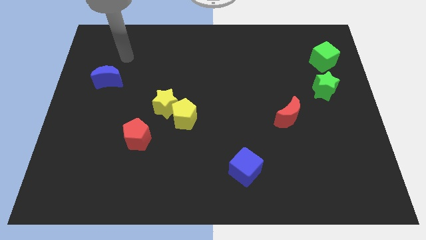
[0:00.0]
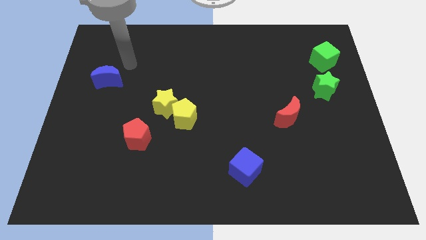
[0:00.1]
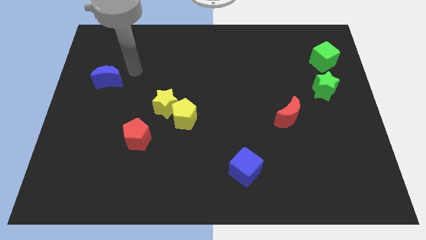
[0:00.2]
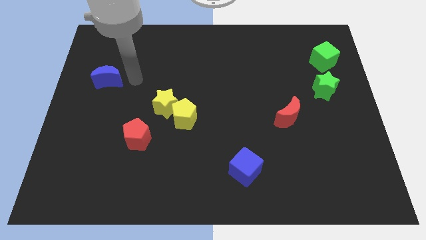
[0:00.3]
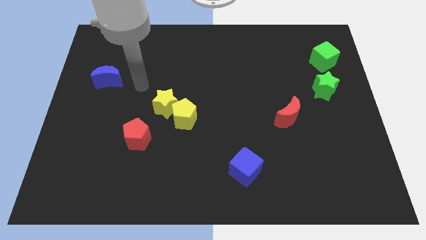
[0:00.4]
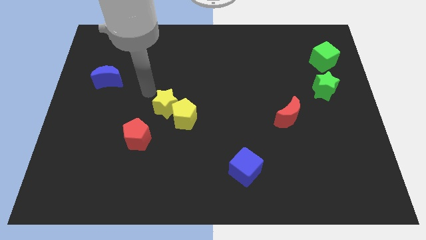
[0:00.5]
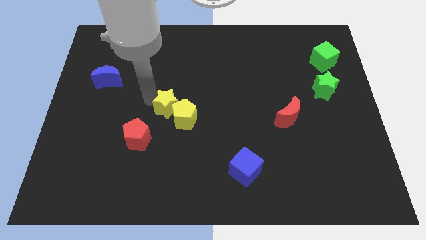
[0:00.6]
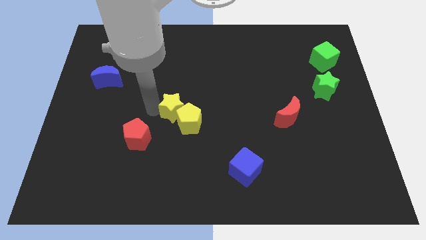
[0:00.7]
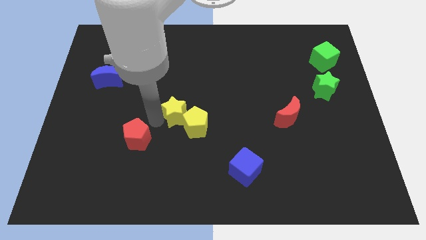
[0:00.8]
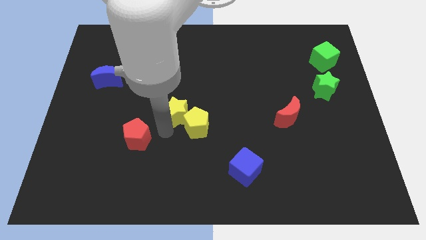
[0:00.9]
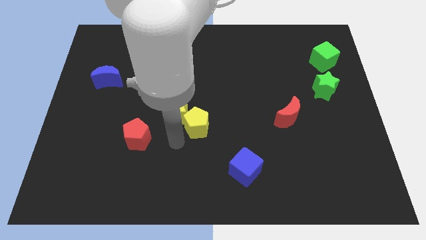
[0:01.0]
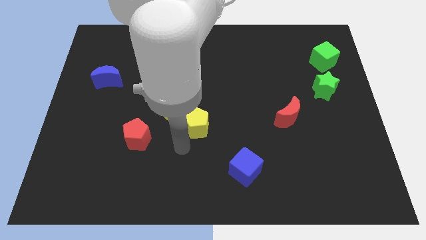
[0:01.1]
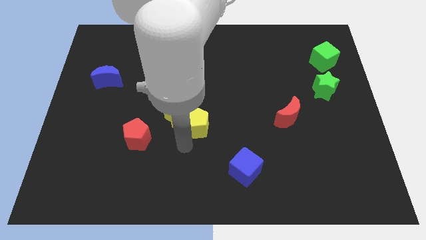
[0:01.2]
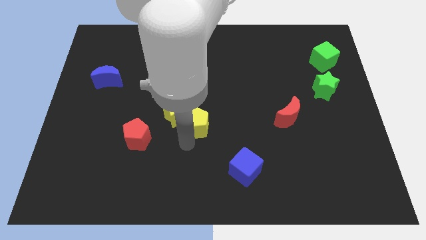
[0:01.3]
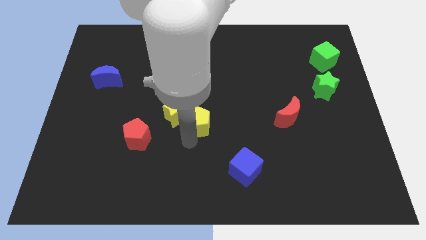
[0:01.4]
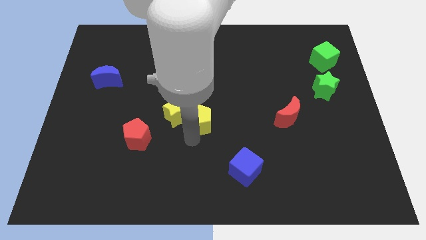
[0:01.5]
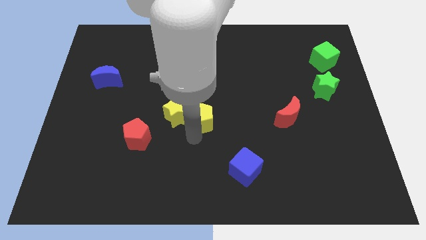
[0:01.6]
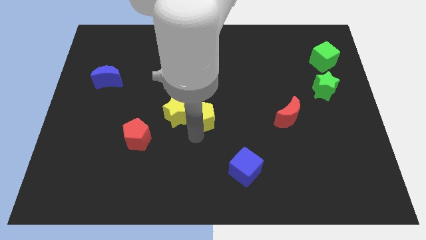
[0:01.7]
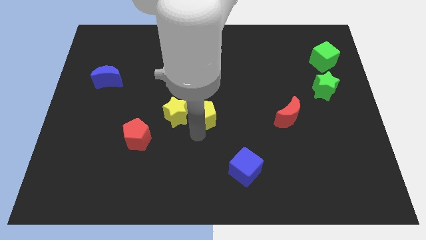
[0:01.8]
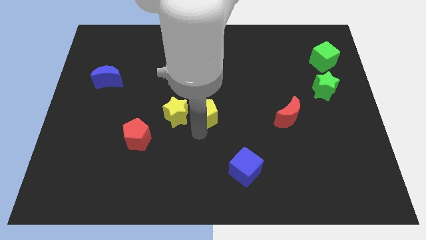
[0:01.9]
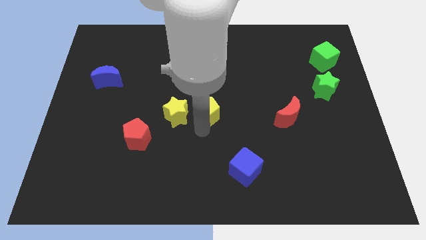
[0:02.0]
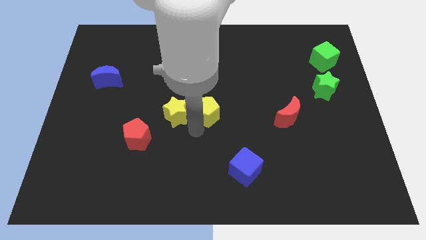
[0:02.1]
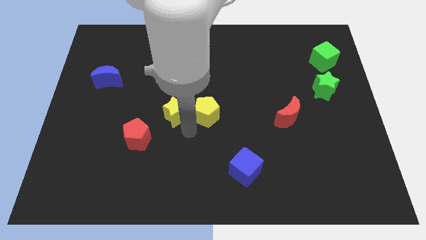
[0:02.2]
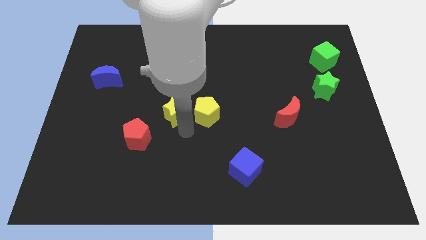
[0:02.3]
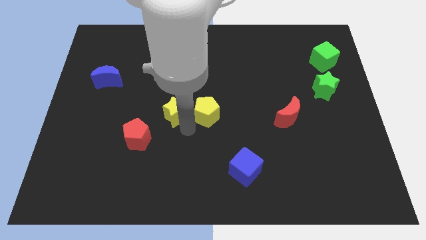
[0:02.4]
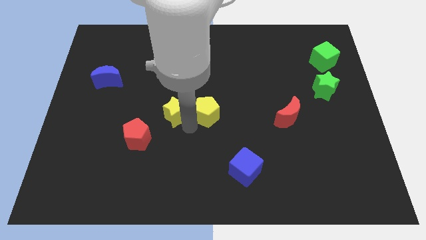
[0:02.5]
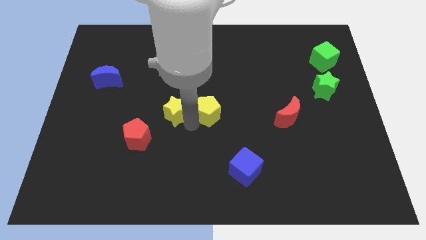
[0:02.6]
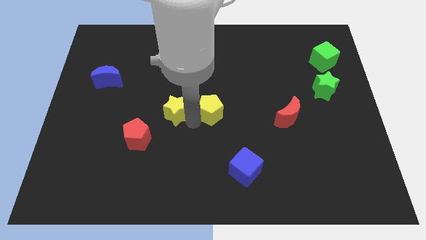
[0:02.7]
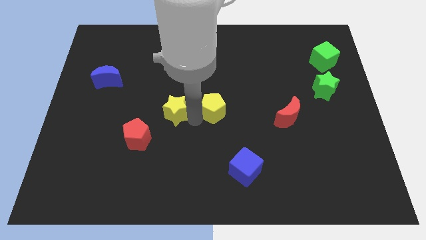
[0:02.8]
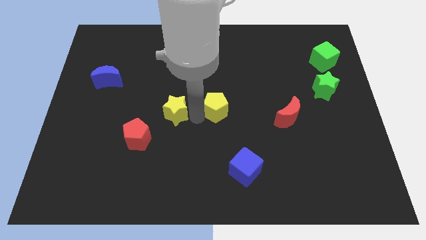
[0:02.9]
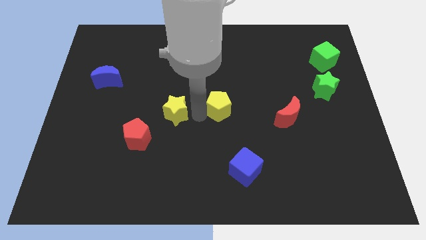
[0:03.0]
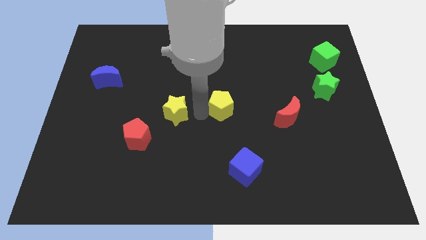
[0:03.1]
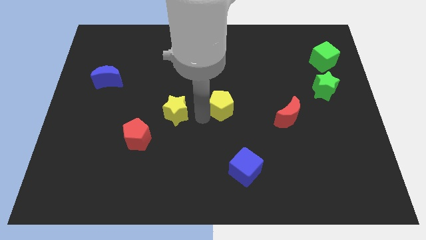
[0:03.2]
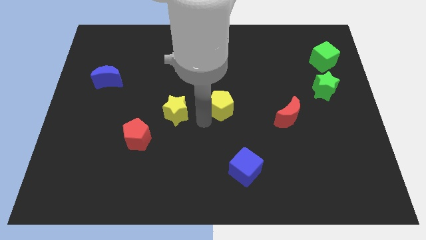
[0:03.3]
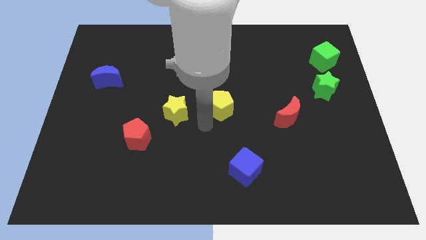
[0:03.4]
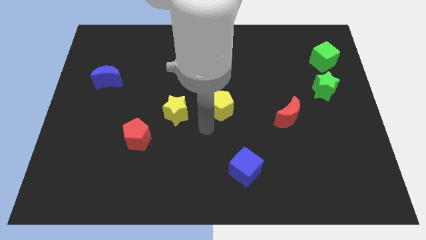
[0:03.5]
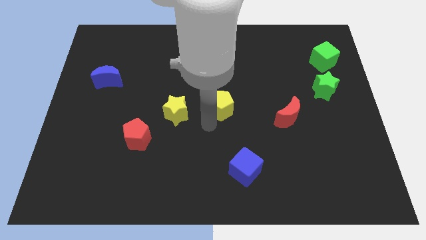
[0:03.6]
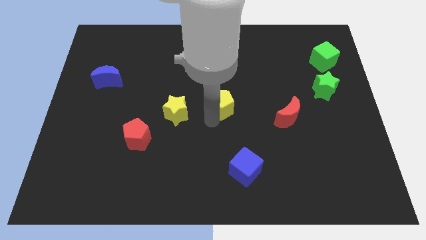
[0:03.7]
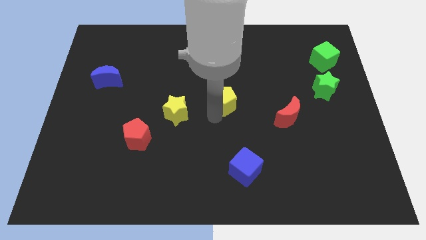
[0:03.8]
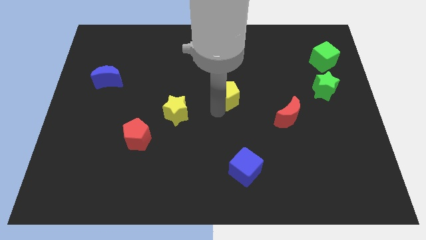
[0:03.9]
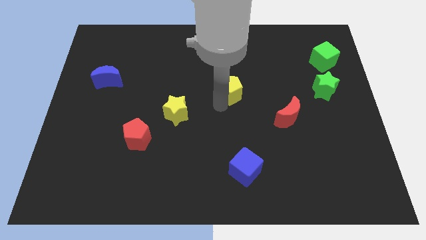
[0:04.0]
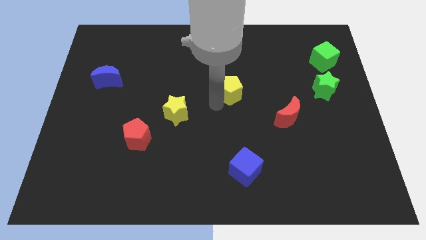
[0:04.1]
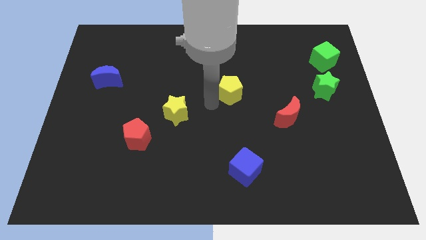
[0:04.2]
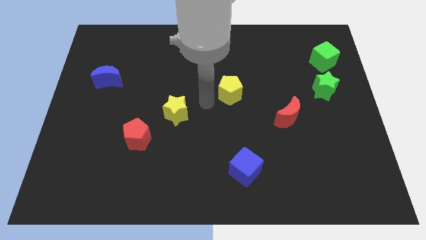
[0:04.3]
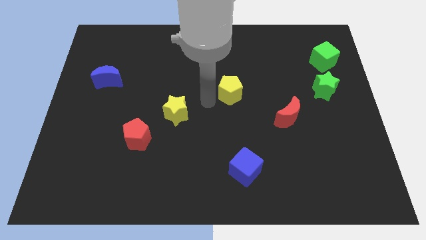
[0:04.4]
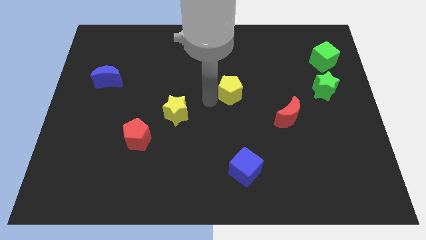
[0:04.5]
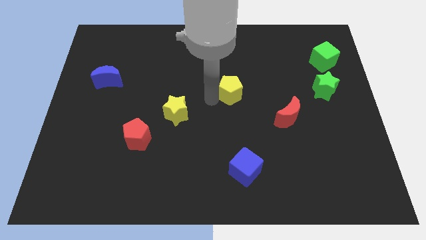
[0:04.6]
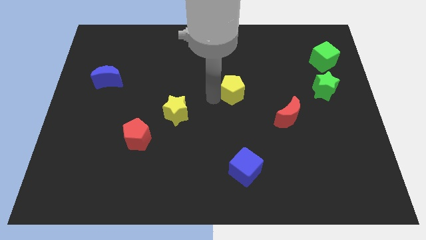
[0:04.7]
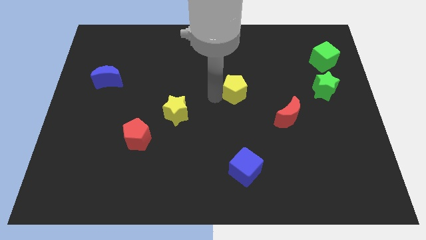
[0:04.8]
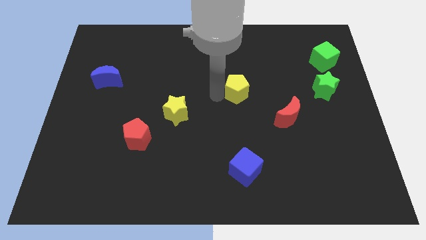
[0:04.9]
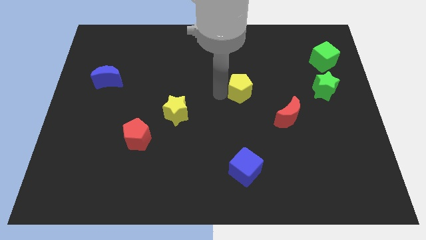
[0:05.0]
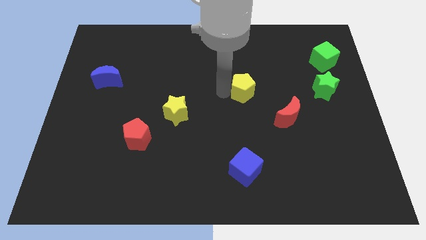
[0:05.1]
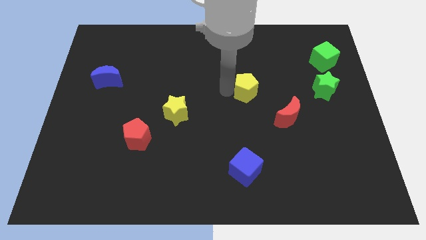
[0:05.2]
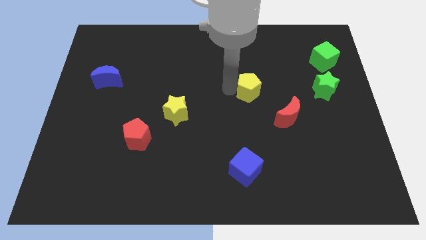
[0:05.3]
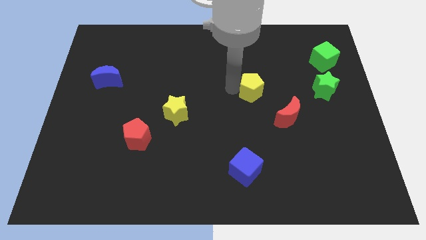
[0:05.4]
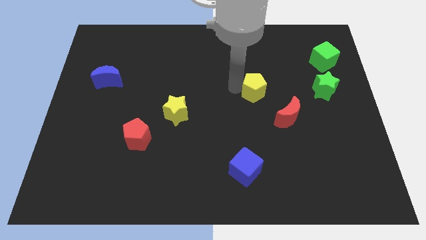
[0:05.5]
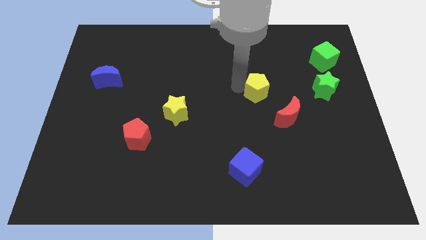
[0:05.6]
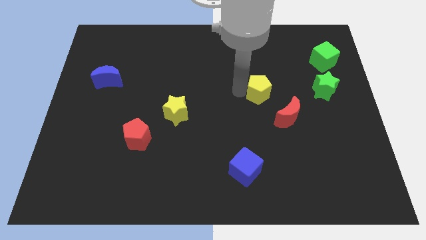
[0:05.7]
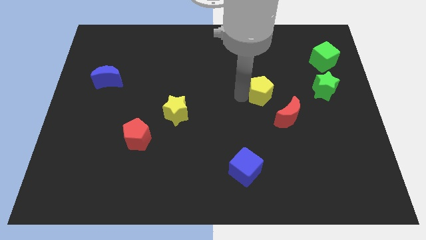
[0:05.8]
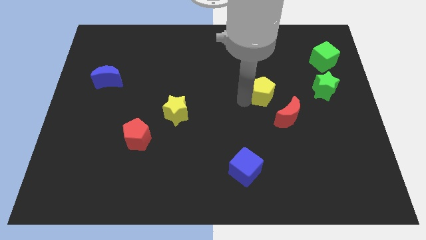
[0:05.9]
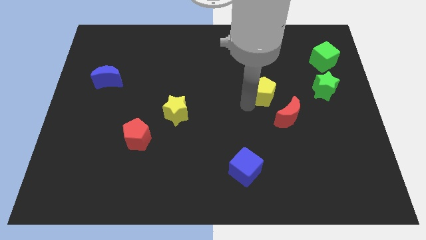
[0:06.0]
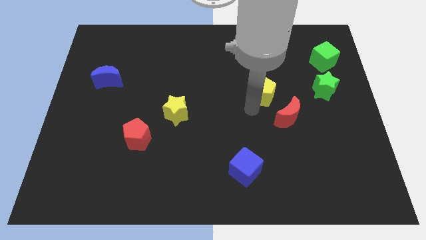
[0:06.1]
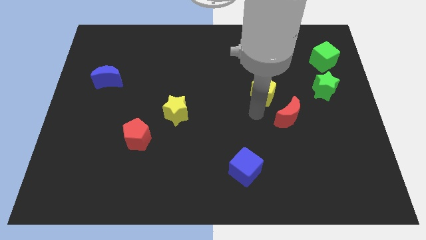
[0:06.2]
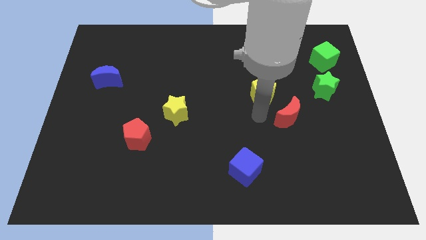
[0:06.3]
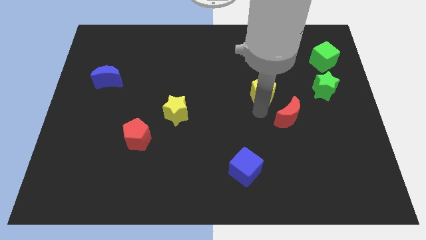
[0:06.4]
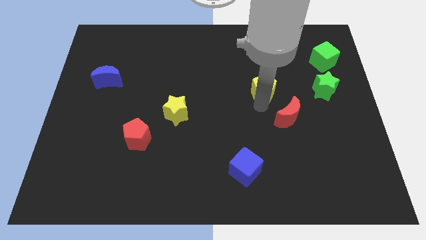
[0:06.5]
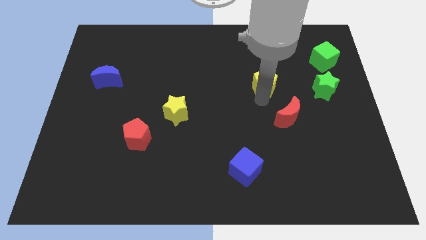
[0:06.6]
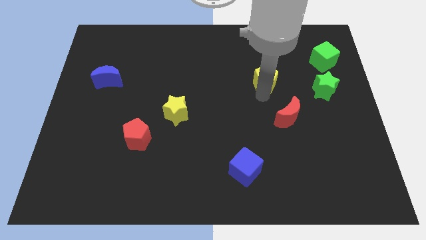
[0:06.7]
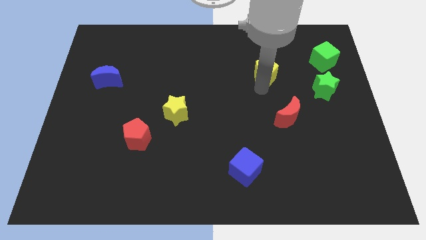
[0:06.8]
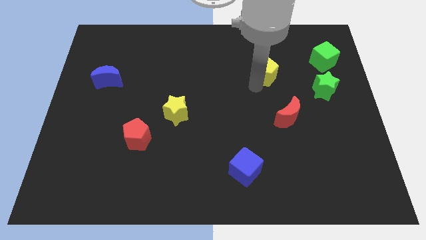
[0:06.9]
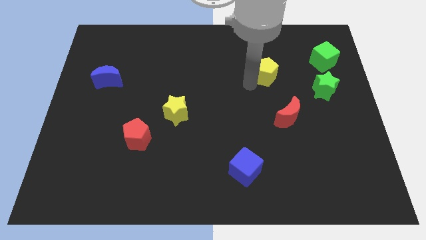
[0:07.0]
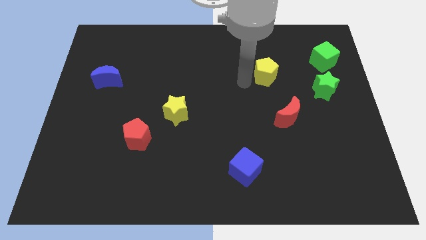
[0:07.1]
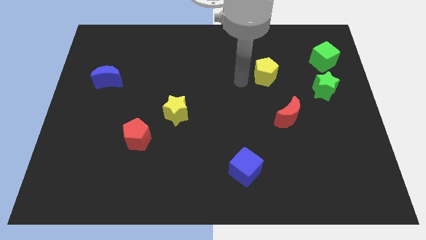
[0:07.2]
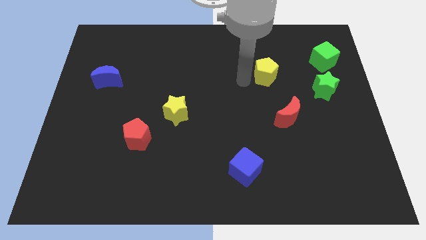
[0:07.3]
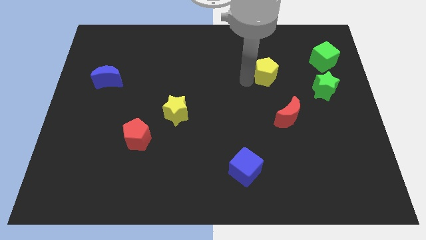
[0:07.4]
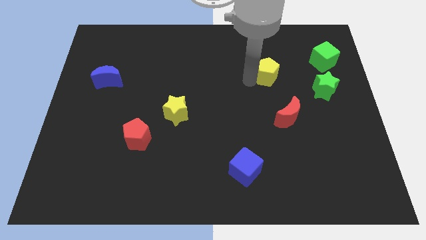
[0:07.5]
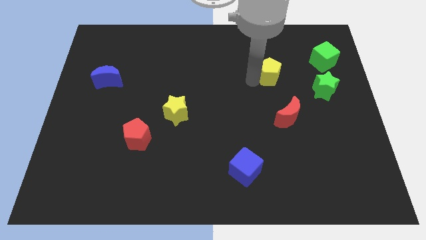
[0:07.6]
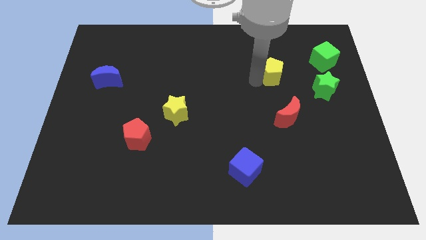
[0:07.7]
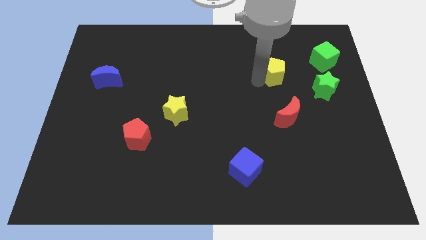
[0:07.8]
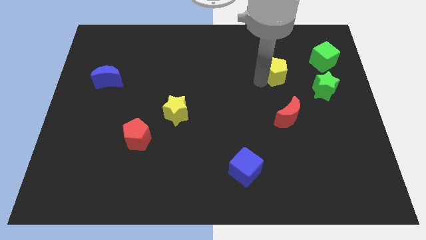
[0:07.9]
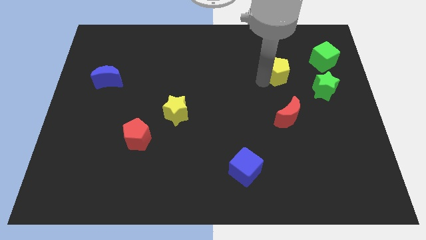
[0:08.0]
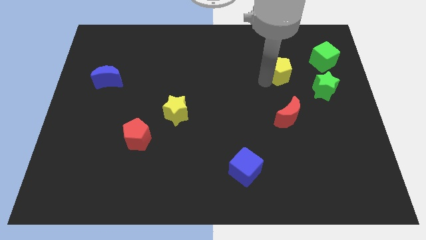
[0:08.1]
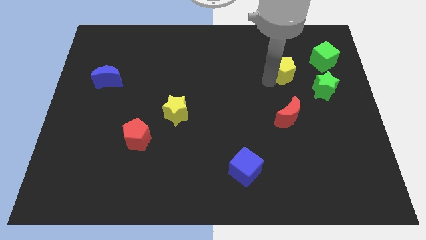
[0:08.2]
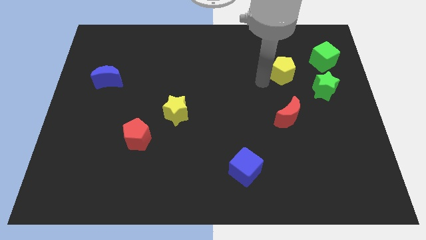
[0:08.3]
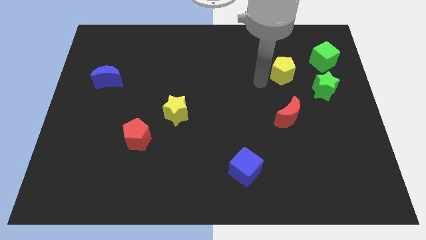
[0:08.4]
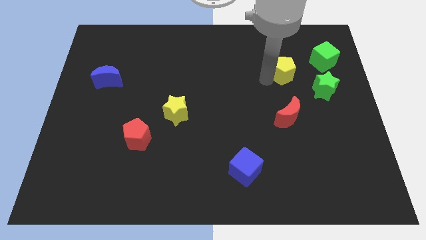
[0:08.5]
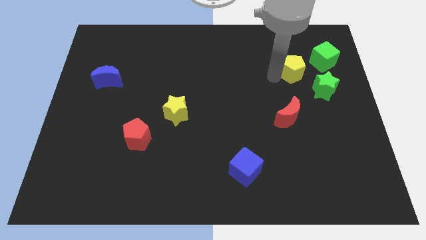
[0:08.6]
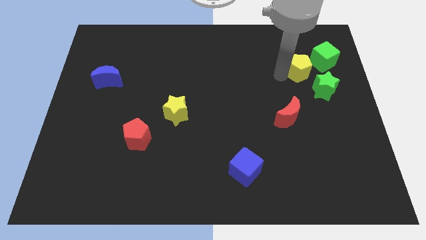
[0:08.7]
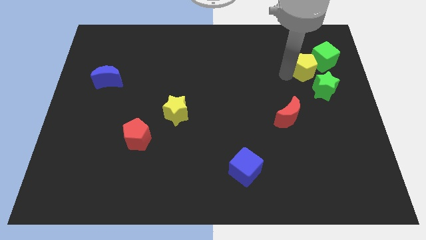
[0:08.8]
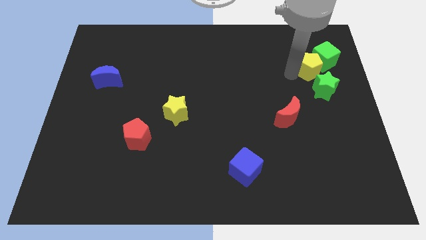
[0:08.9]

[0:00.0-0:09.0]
push the yellow pentagon next to the green cube
